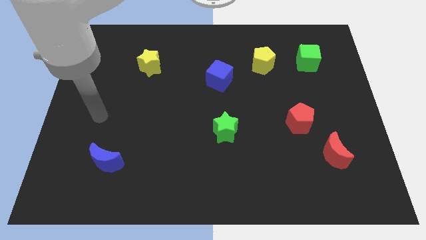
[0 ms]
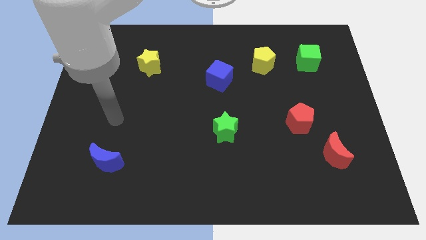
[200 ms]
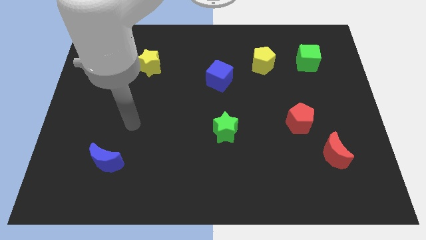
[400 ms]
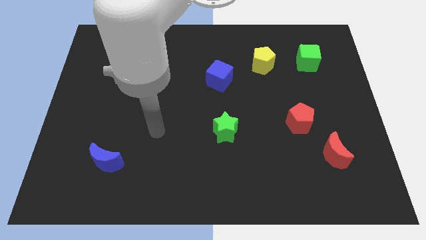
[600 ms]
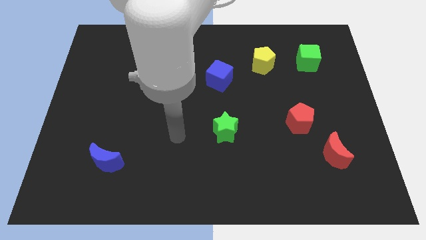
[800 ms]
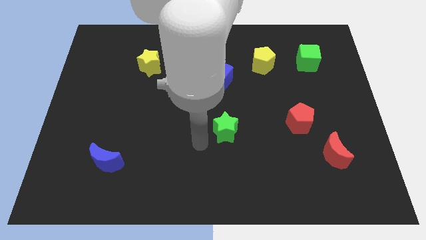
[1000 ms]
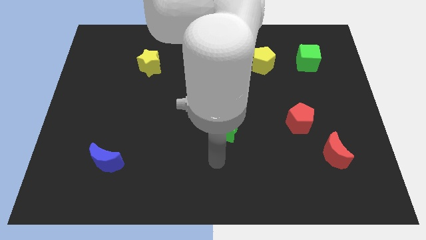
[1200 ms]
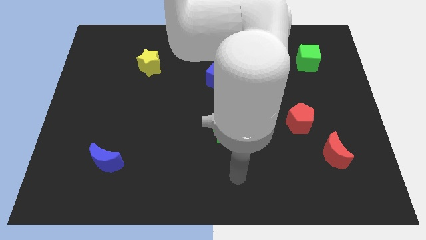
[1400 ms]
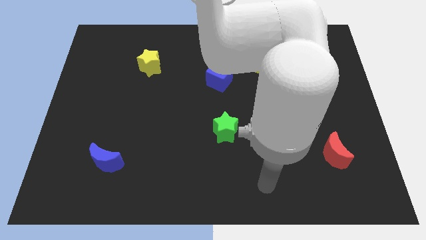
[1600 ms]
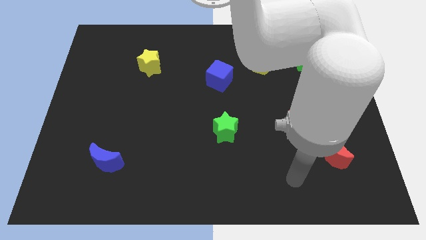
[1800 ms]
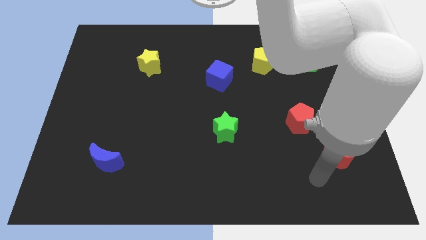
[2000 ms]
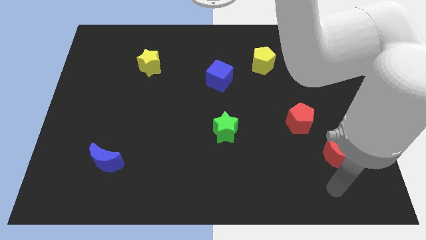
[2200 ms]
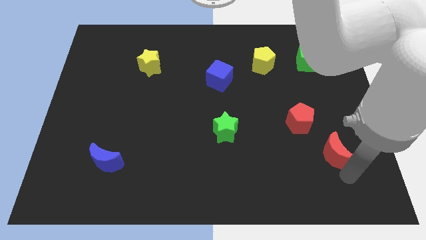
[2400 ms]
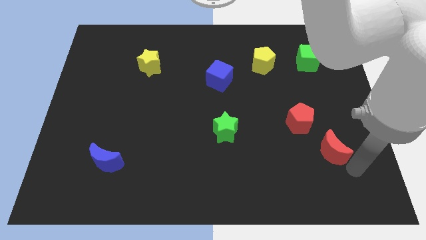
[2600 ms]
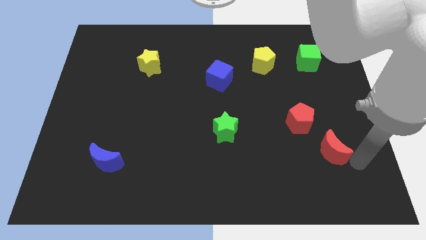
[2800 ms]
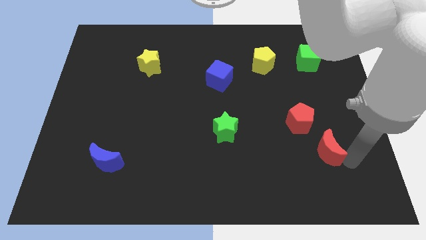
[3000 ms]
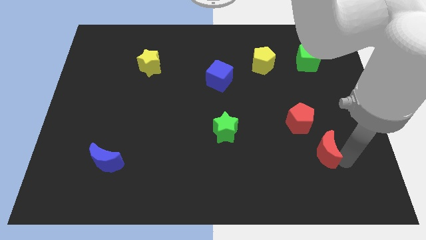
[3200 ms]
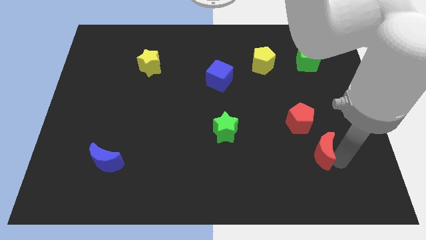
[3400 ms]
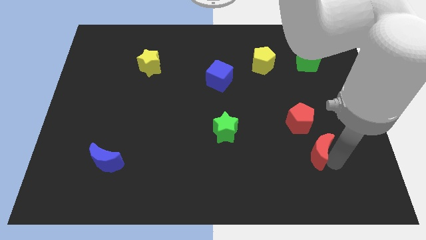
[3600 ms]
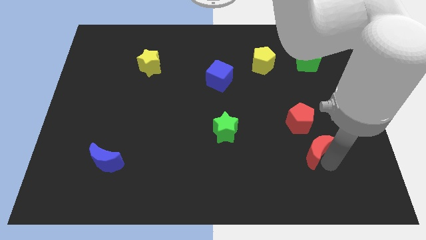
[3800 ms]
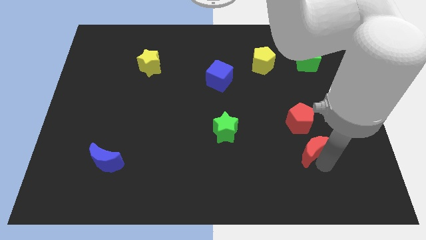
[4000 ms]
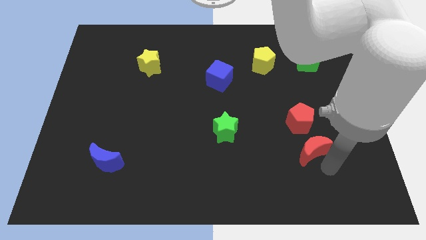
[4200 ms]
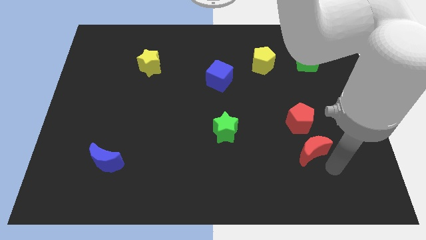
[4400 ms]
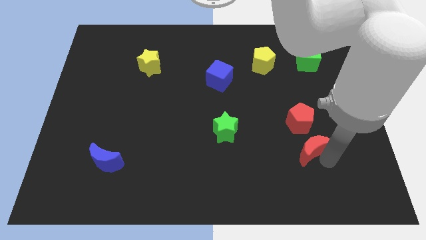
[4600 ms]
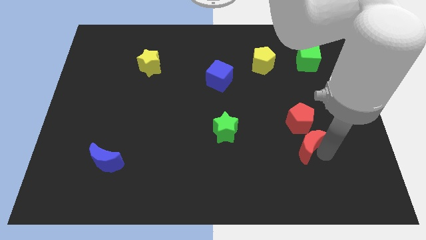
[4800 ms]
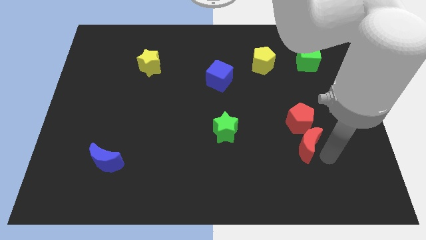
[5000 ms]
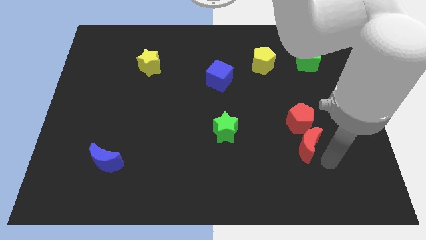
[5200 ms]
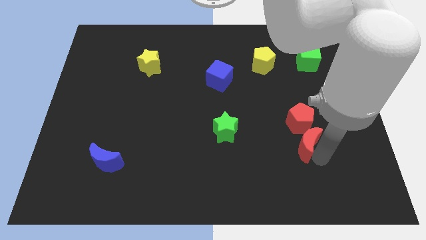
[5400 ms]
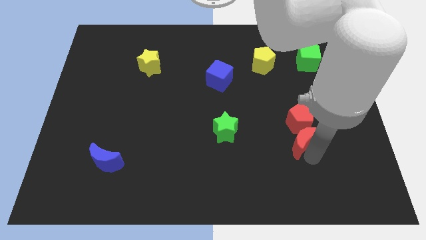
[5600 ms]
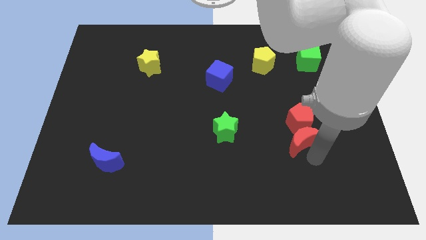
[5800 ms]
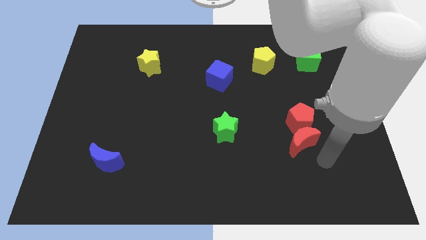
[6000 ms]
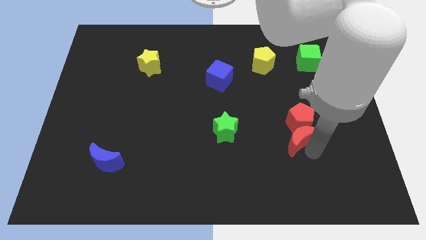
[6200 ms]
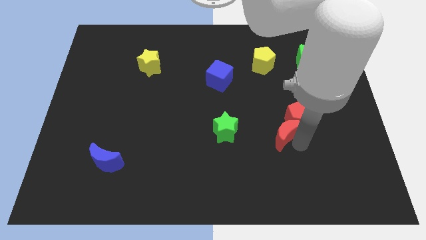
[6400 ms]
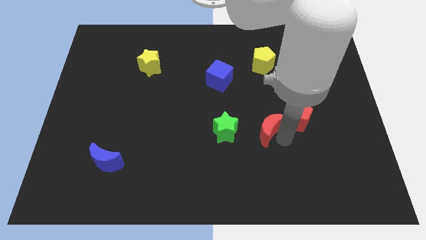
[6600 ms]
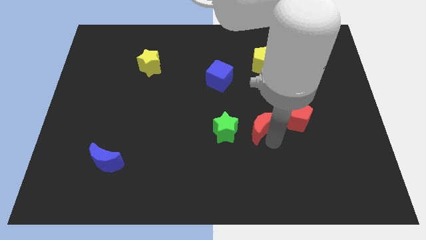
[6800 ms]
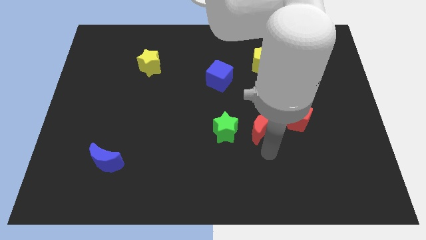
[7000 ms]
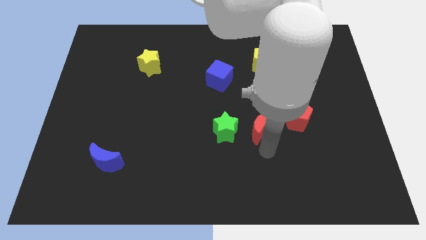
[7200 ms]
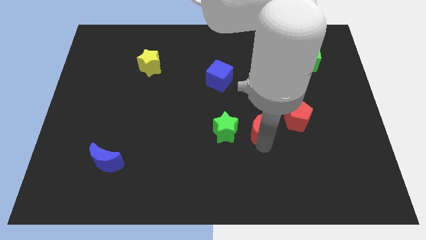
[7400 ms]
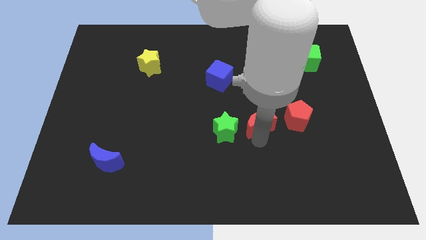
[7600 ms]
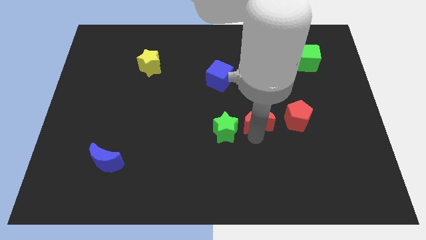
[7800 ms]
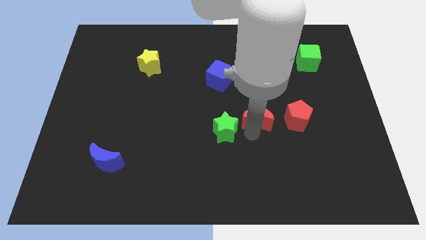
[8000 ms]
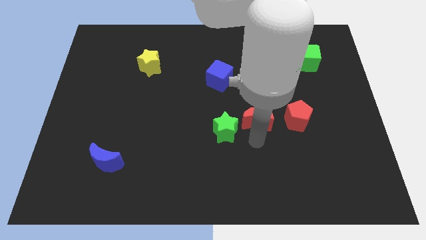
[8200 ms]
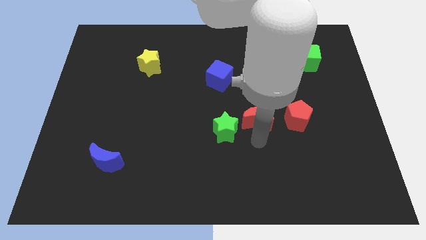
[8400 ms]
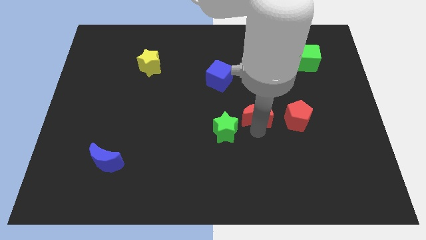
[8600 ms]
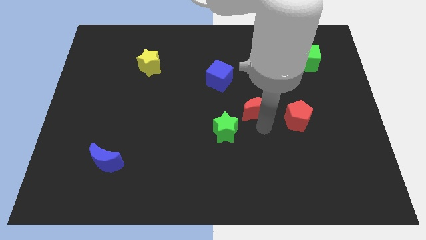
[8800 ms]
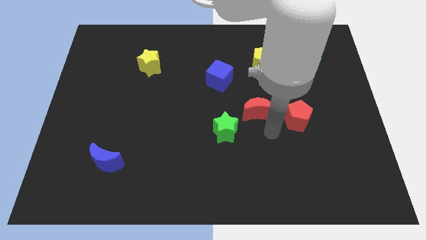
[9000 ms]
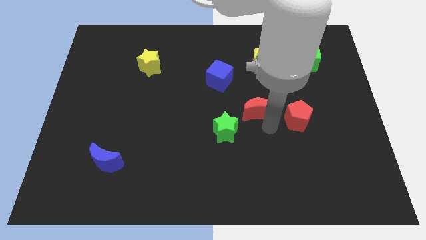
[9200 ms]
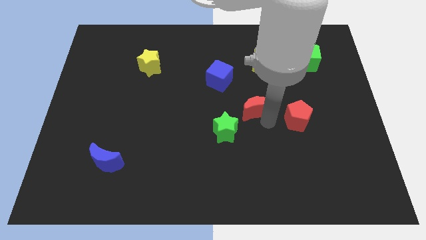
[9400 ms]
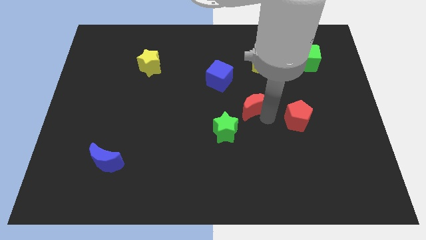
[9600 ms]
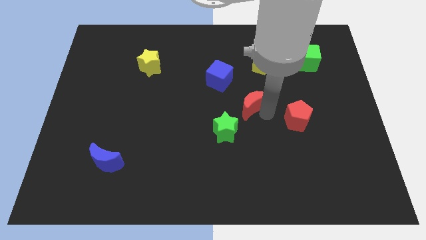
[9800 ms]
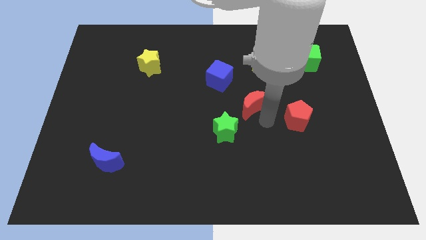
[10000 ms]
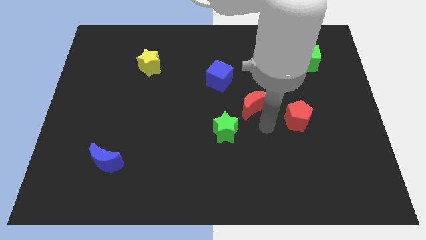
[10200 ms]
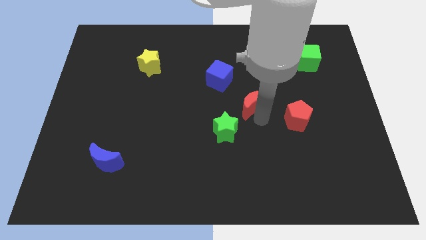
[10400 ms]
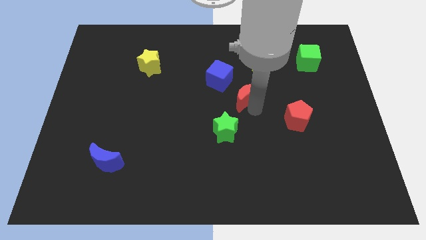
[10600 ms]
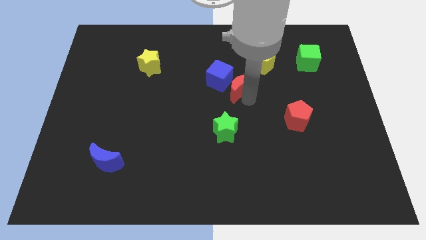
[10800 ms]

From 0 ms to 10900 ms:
move the red moon close to the blue cube

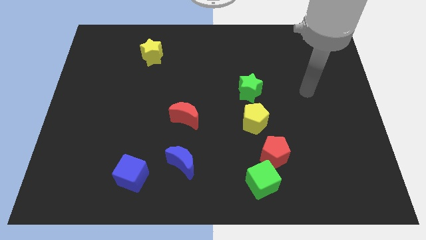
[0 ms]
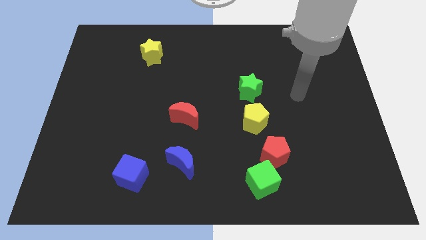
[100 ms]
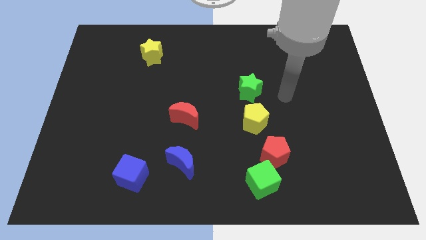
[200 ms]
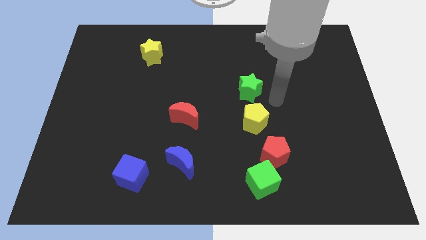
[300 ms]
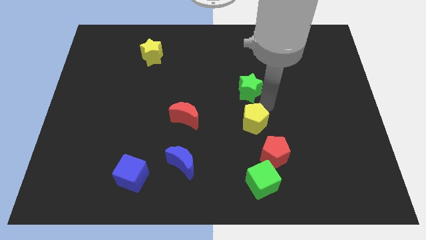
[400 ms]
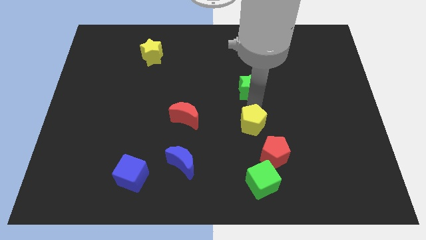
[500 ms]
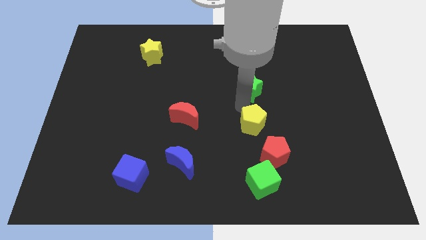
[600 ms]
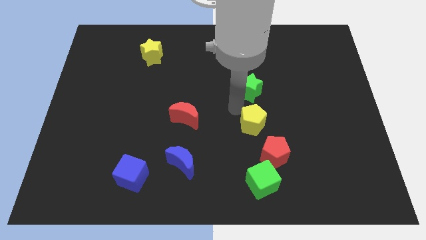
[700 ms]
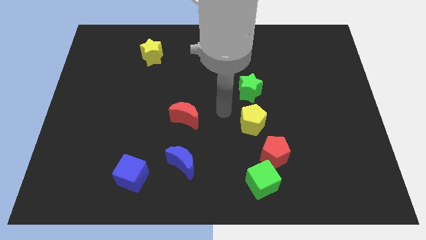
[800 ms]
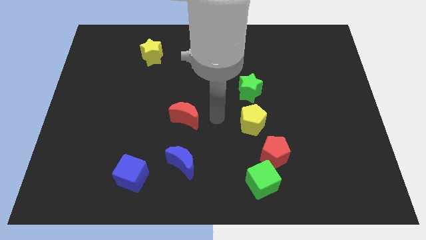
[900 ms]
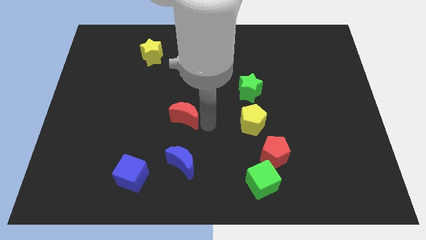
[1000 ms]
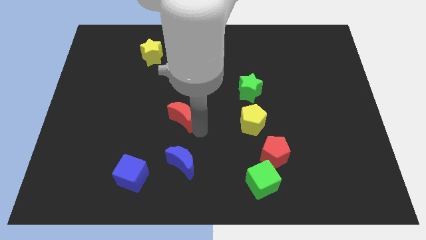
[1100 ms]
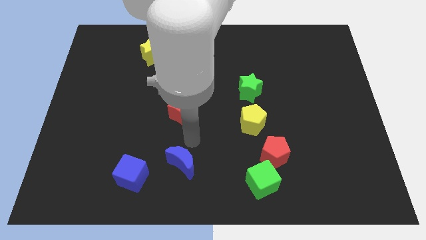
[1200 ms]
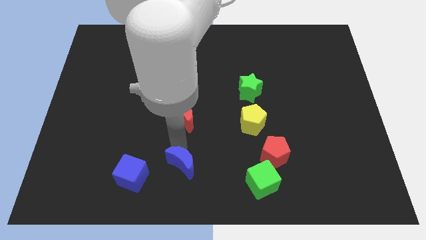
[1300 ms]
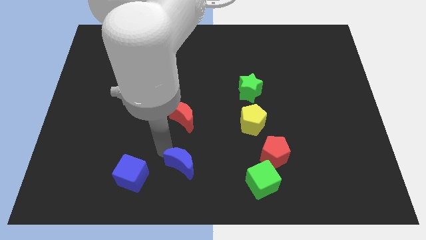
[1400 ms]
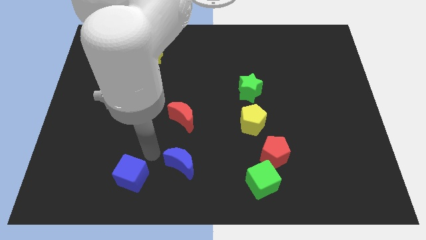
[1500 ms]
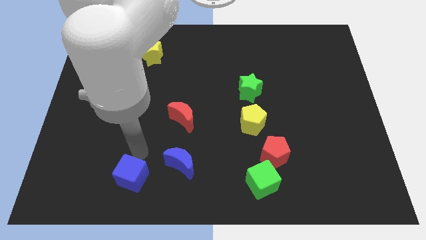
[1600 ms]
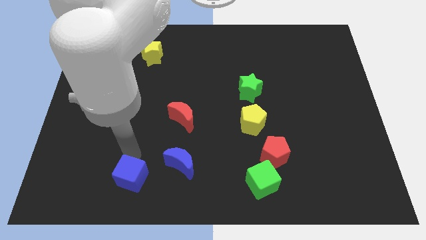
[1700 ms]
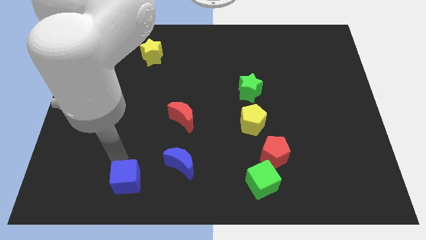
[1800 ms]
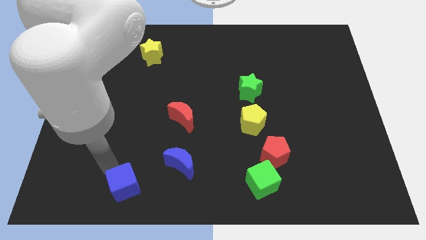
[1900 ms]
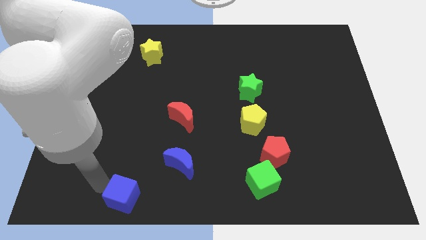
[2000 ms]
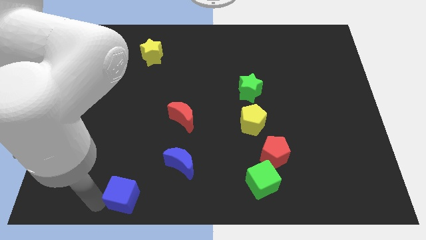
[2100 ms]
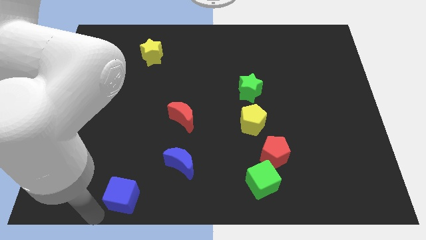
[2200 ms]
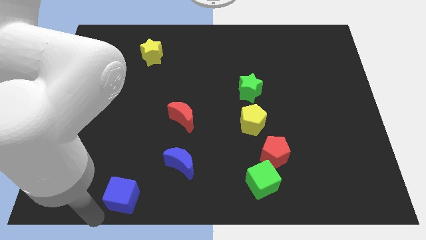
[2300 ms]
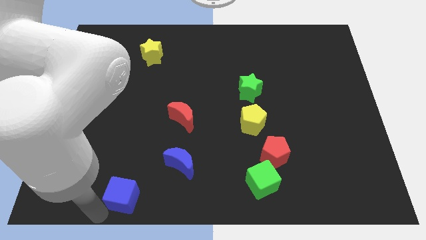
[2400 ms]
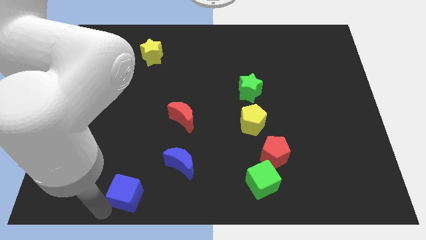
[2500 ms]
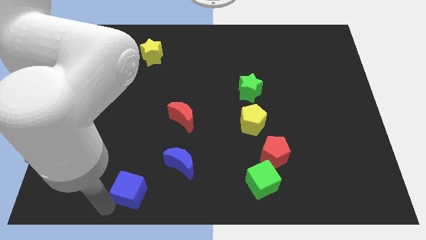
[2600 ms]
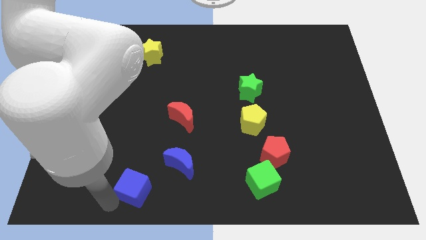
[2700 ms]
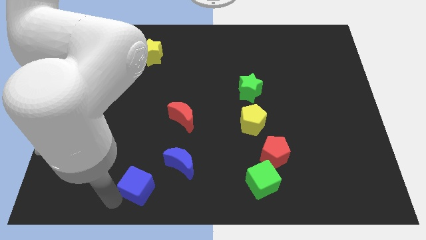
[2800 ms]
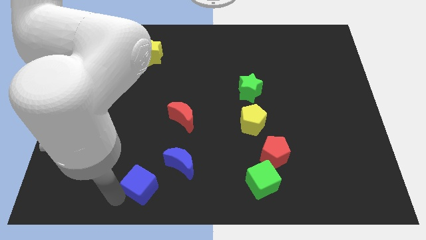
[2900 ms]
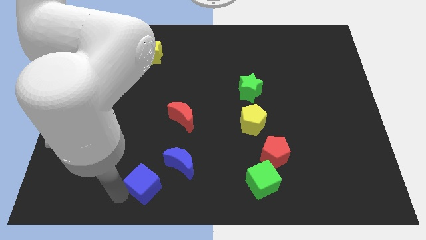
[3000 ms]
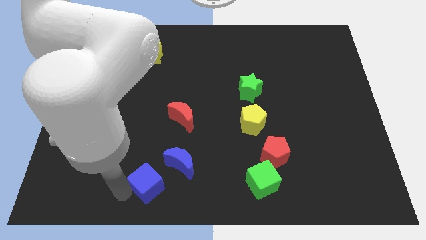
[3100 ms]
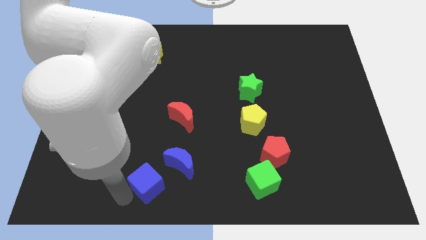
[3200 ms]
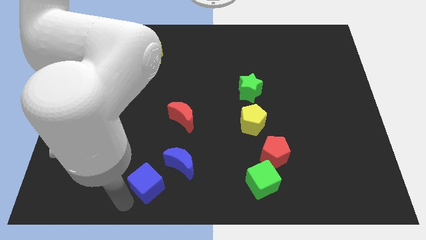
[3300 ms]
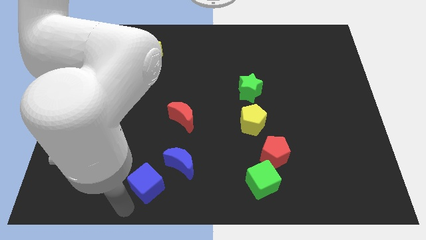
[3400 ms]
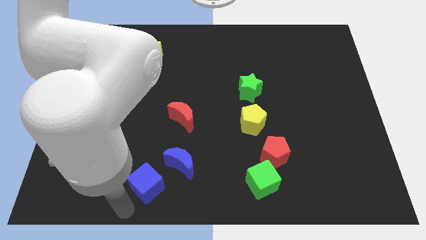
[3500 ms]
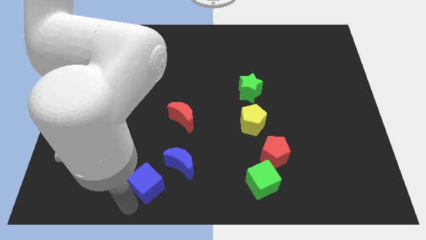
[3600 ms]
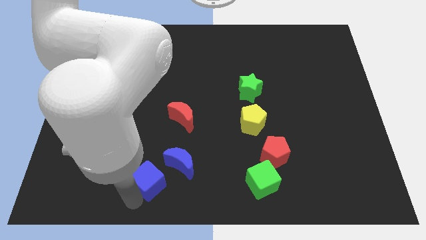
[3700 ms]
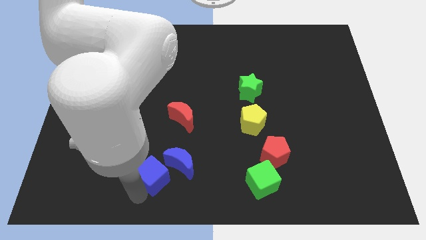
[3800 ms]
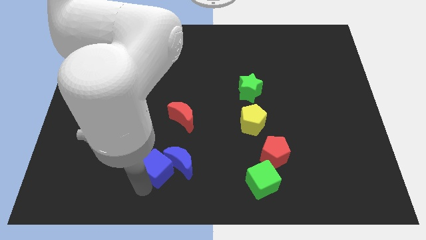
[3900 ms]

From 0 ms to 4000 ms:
move the blue cube to the blue moon
